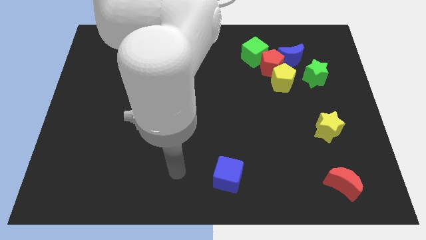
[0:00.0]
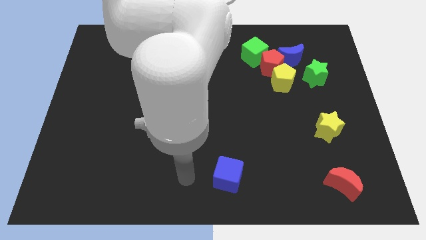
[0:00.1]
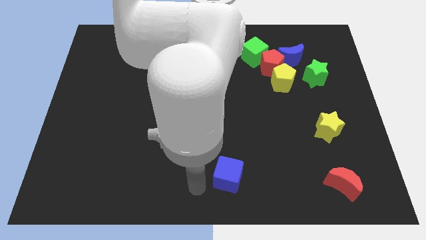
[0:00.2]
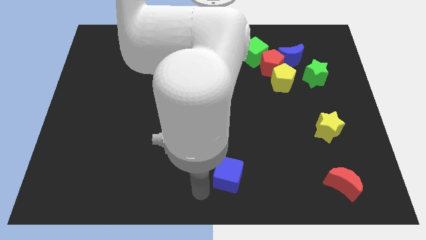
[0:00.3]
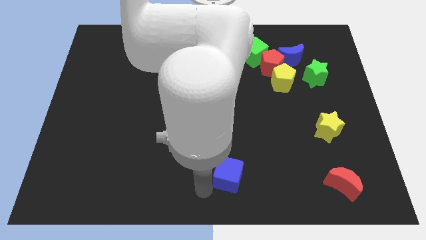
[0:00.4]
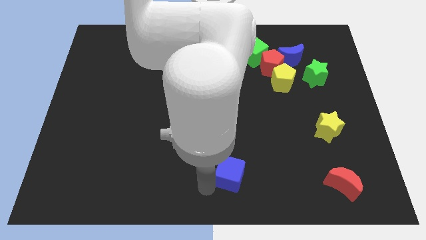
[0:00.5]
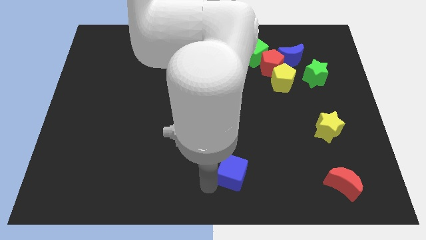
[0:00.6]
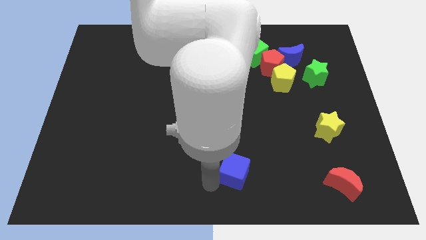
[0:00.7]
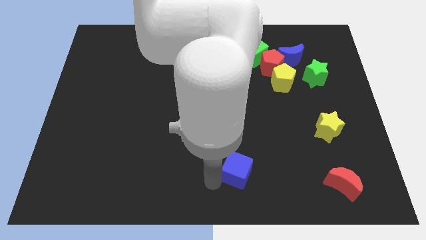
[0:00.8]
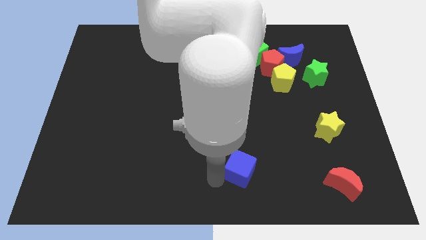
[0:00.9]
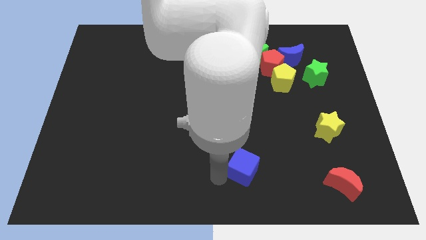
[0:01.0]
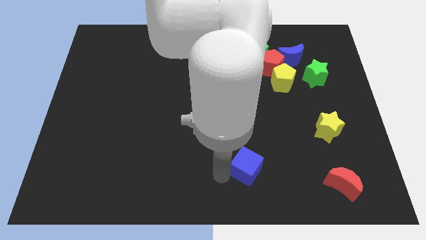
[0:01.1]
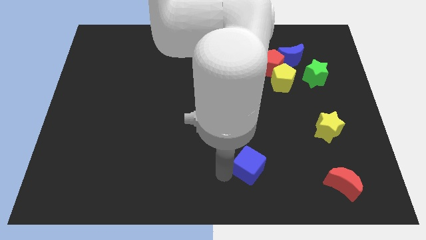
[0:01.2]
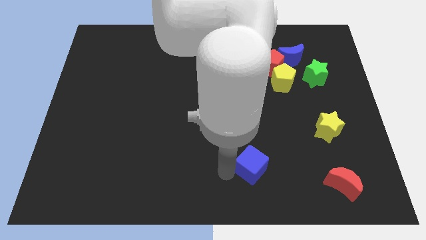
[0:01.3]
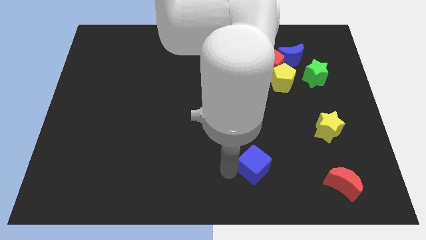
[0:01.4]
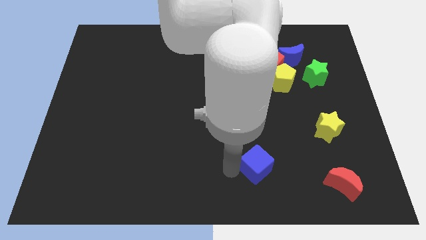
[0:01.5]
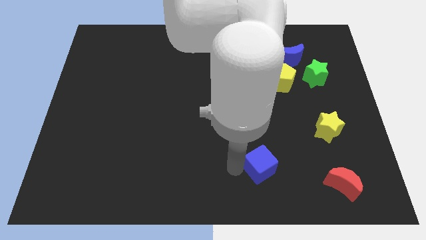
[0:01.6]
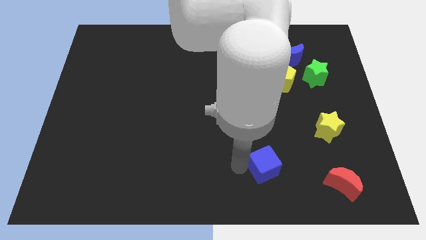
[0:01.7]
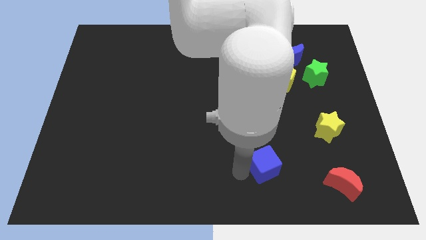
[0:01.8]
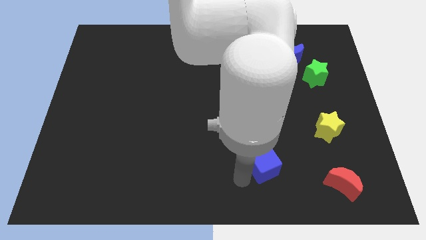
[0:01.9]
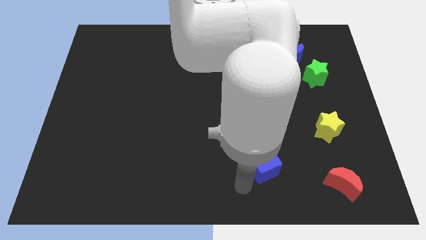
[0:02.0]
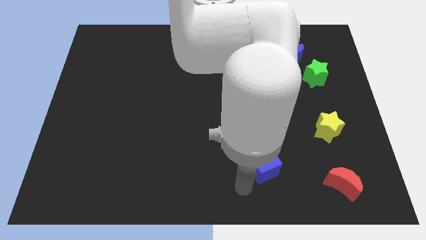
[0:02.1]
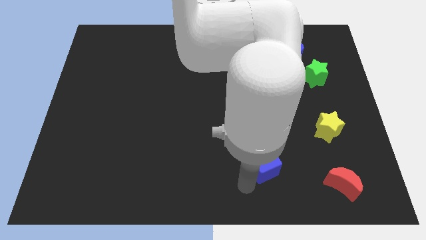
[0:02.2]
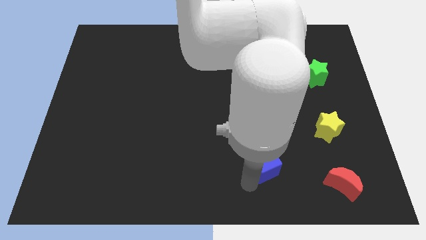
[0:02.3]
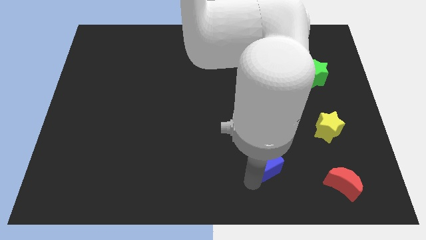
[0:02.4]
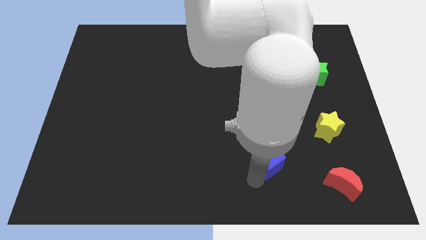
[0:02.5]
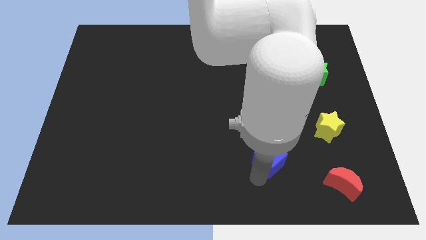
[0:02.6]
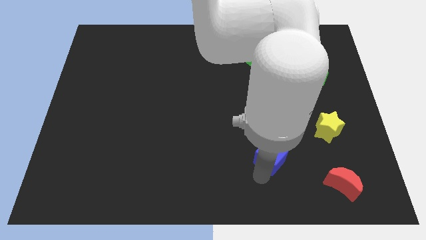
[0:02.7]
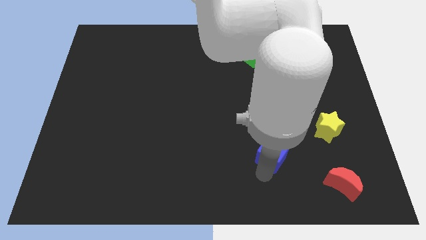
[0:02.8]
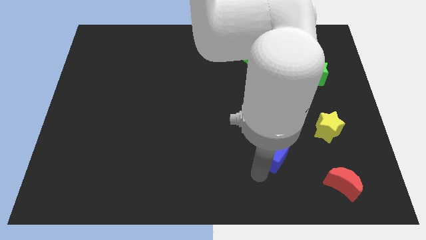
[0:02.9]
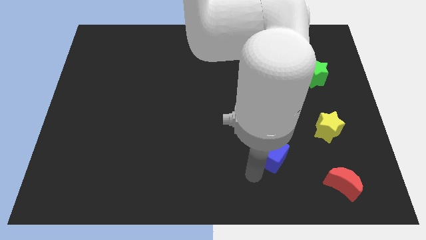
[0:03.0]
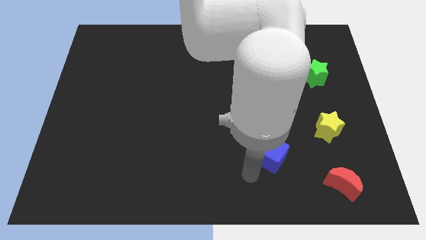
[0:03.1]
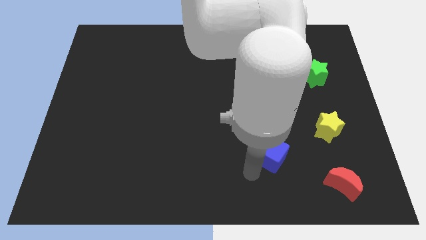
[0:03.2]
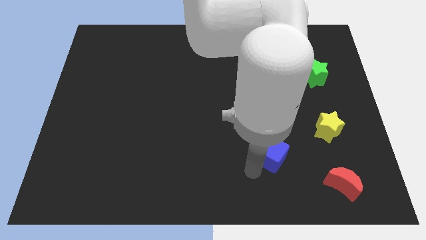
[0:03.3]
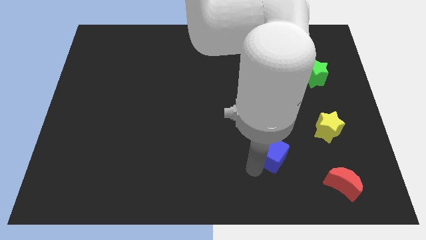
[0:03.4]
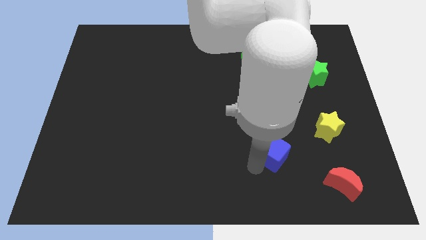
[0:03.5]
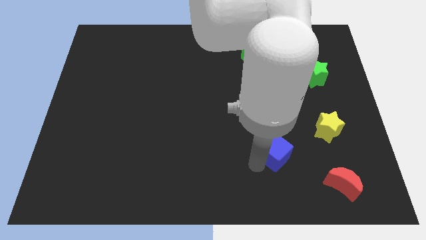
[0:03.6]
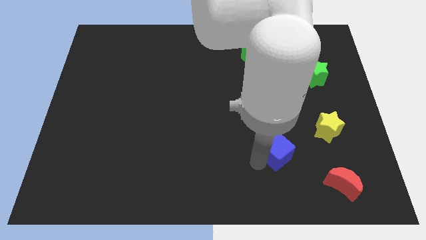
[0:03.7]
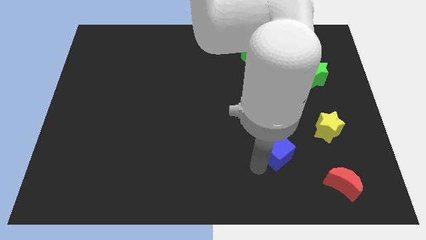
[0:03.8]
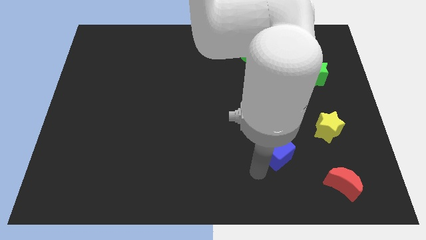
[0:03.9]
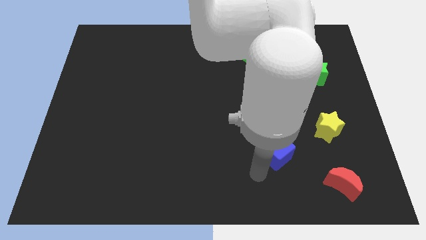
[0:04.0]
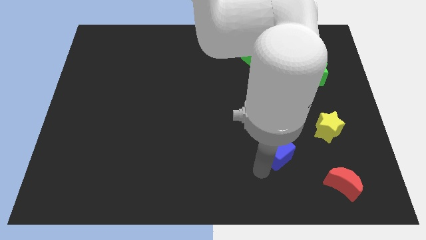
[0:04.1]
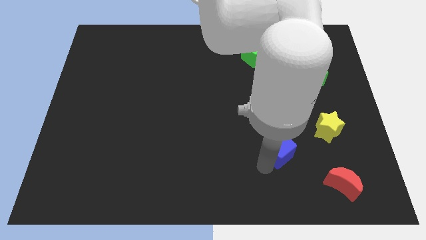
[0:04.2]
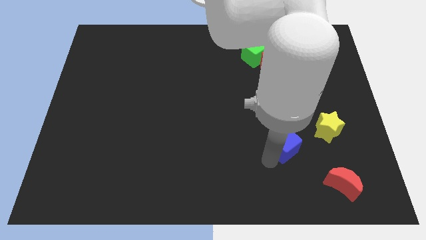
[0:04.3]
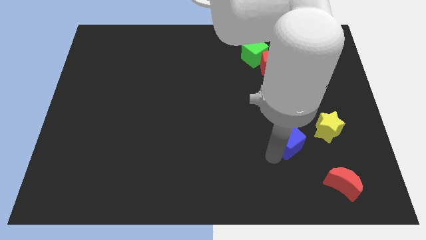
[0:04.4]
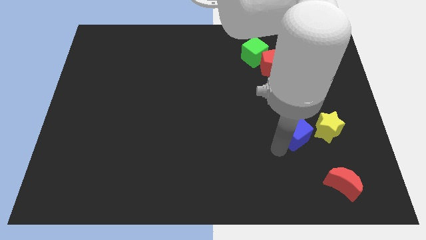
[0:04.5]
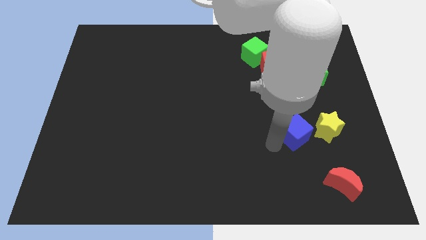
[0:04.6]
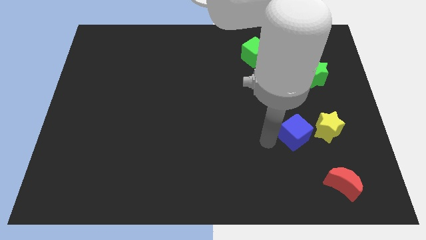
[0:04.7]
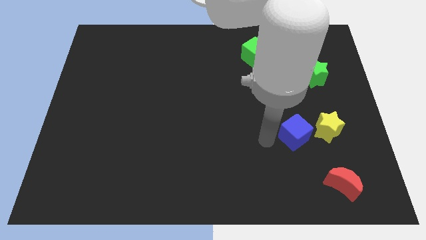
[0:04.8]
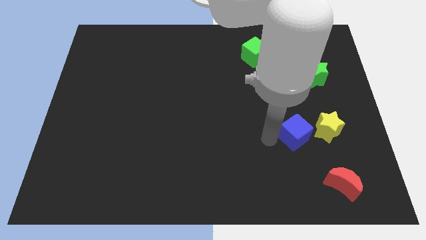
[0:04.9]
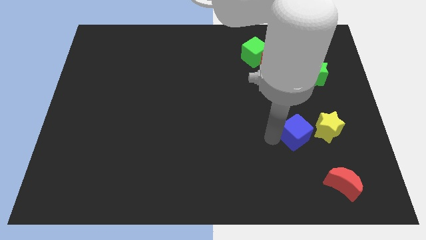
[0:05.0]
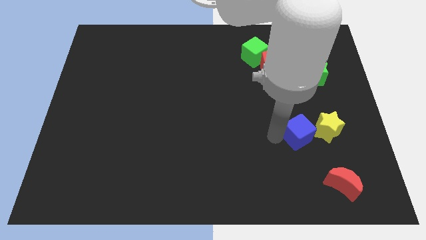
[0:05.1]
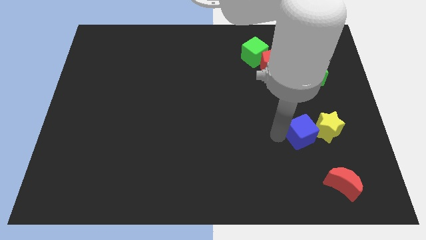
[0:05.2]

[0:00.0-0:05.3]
put the blue cube towards the yellow star

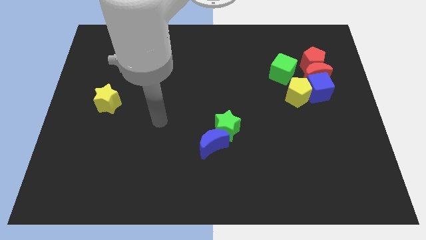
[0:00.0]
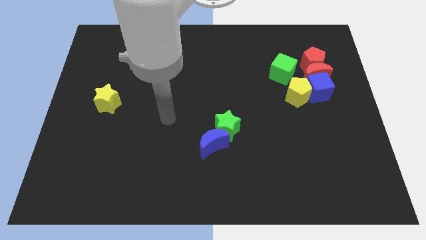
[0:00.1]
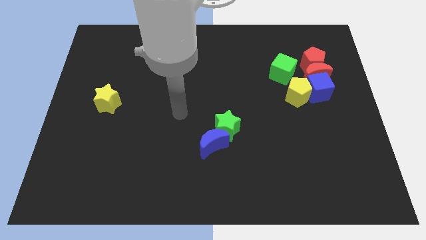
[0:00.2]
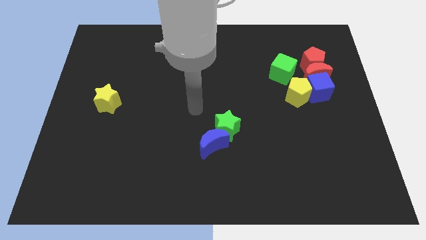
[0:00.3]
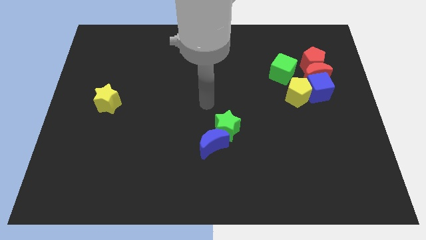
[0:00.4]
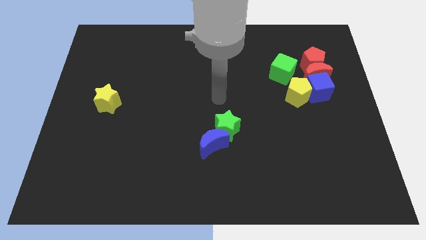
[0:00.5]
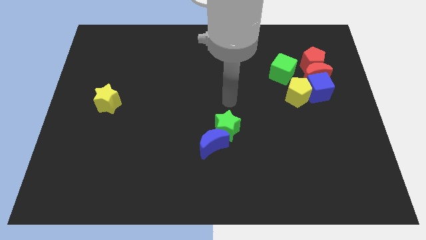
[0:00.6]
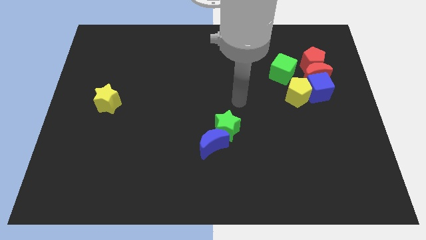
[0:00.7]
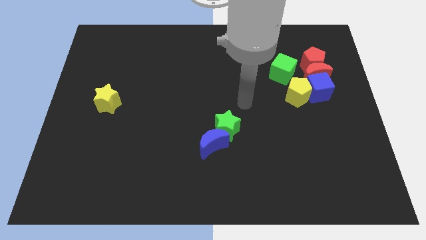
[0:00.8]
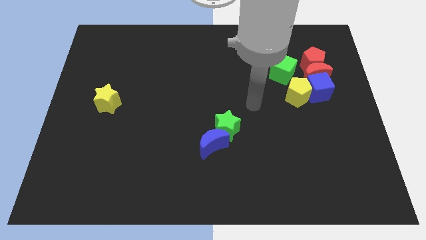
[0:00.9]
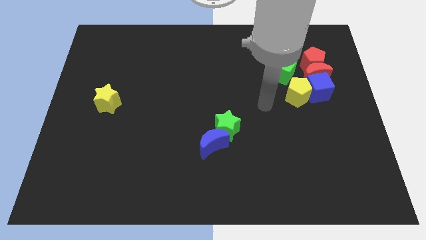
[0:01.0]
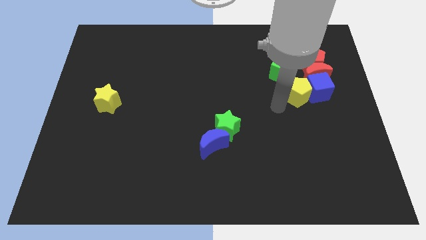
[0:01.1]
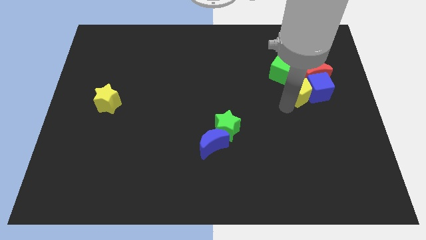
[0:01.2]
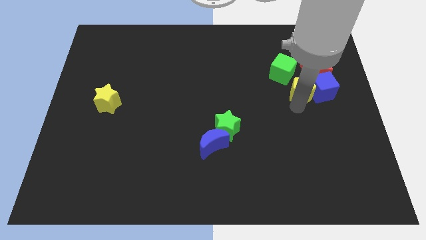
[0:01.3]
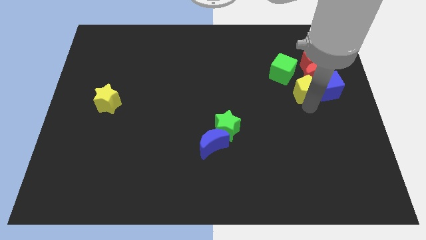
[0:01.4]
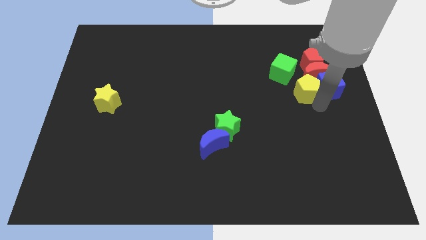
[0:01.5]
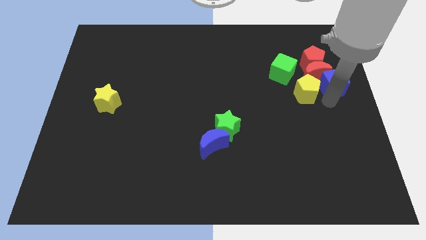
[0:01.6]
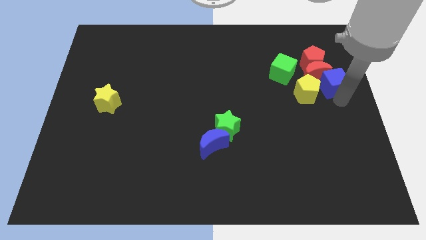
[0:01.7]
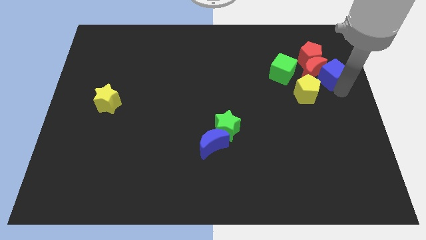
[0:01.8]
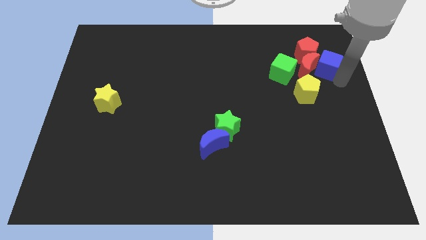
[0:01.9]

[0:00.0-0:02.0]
push the red moon to the green cube
